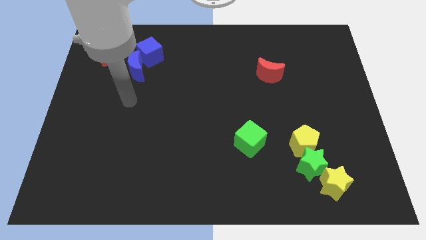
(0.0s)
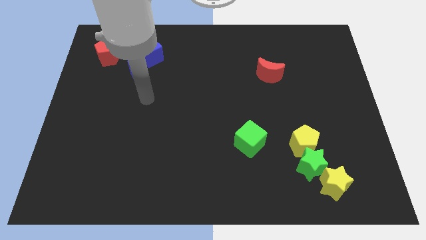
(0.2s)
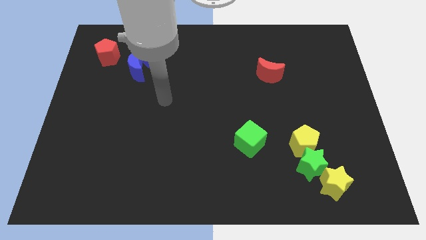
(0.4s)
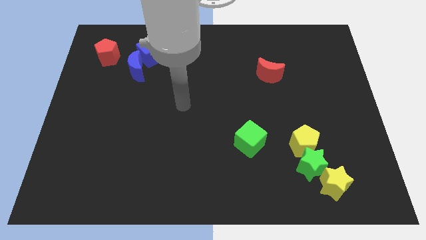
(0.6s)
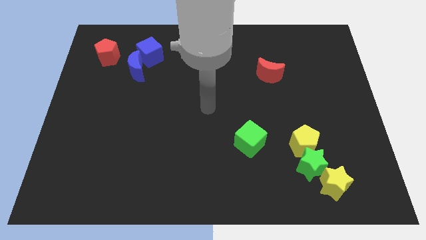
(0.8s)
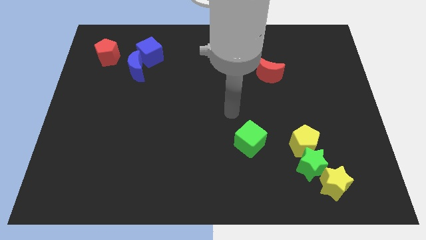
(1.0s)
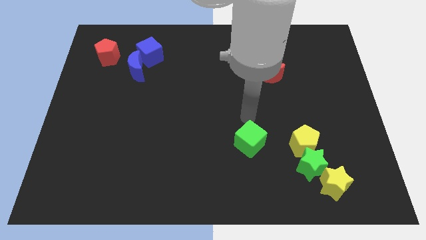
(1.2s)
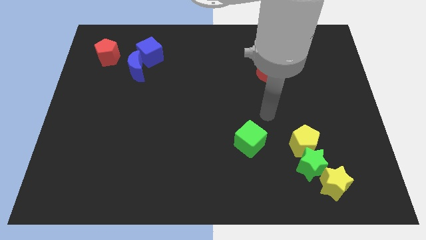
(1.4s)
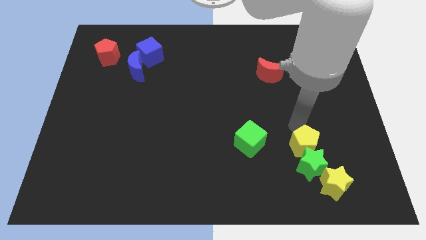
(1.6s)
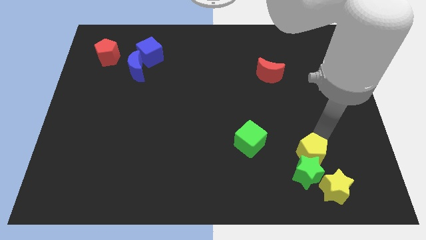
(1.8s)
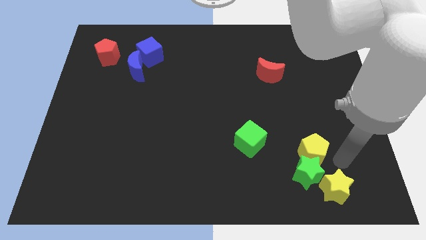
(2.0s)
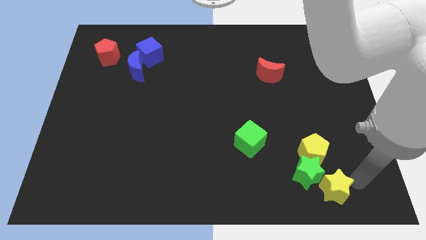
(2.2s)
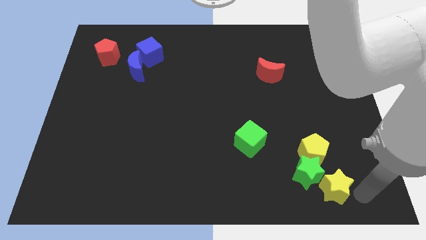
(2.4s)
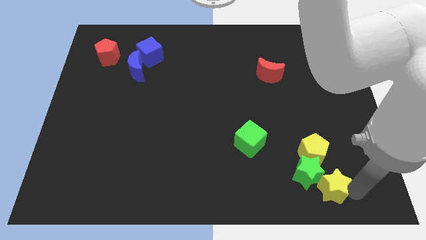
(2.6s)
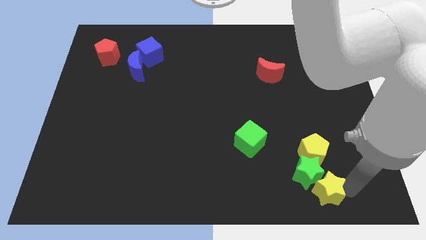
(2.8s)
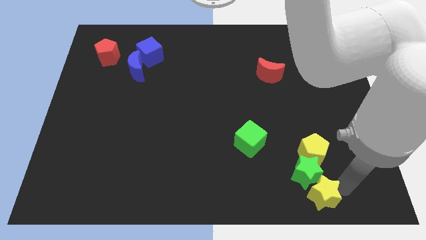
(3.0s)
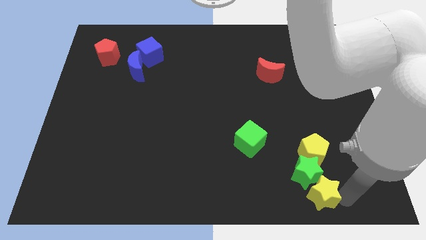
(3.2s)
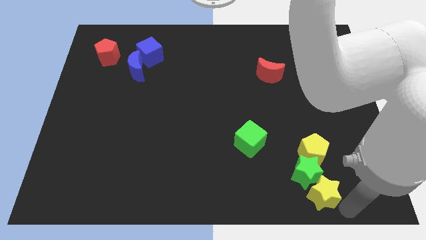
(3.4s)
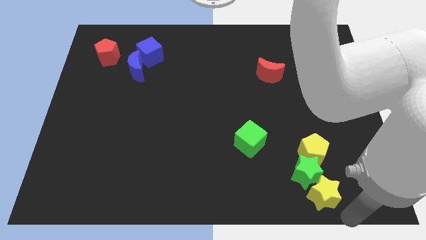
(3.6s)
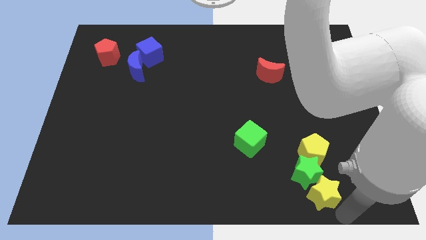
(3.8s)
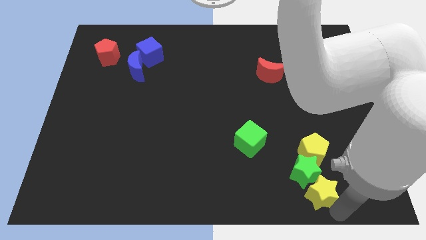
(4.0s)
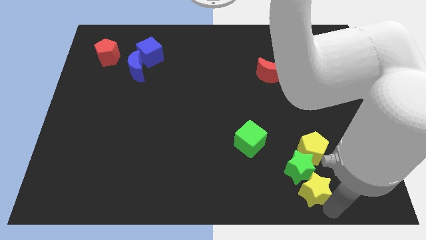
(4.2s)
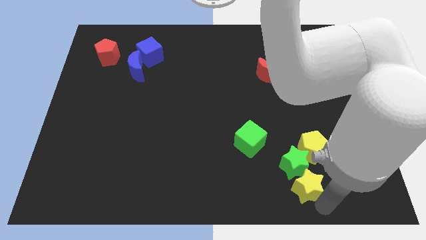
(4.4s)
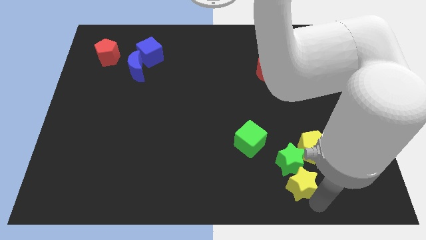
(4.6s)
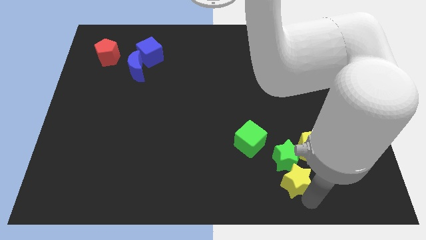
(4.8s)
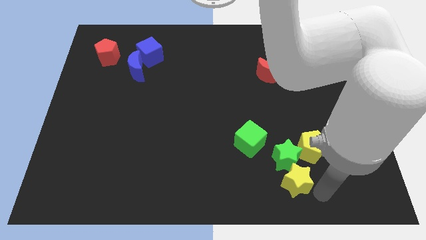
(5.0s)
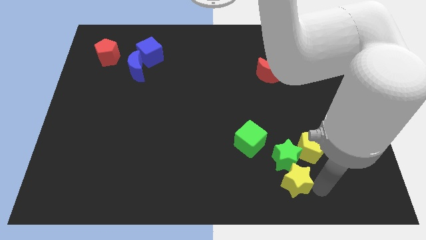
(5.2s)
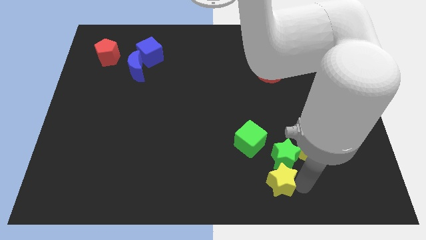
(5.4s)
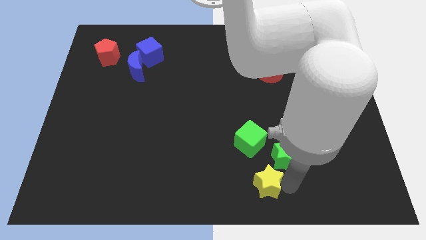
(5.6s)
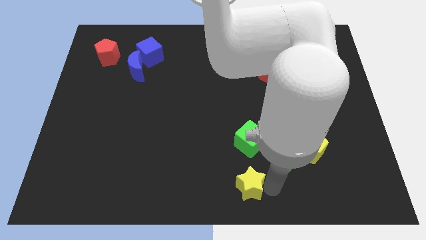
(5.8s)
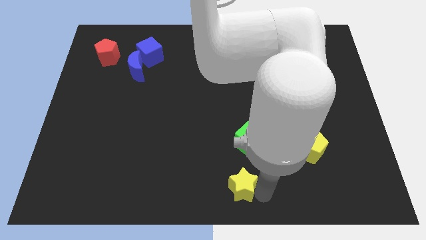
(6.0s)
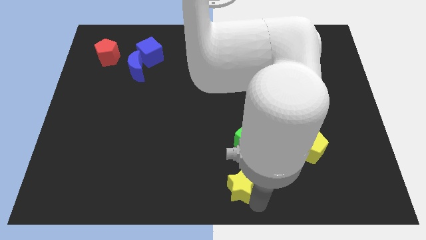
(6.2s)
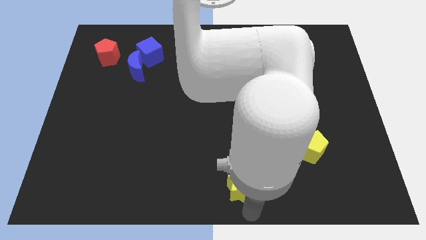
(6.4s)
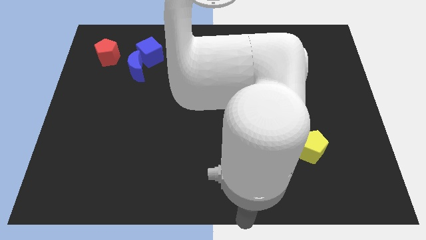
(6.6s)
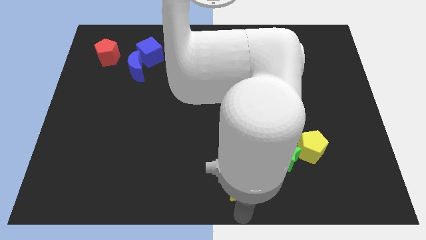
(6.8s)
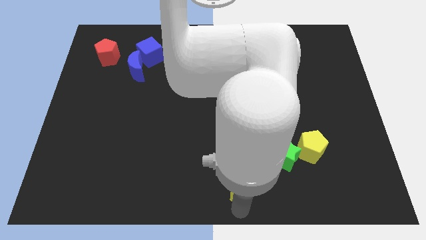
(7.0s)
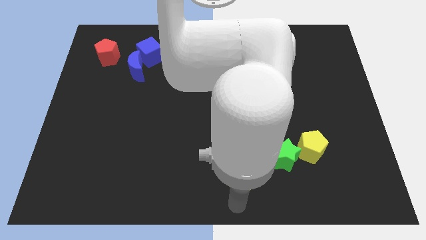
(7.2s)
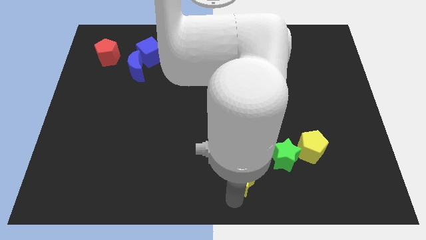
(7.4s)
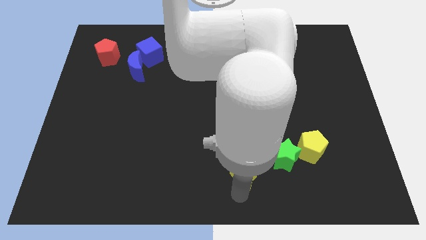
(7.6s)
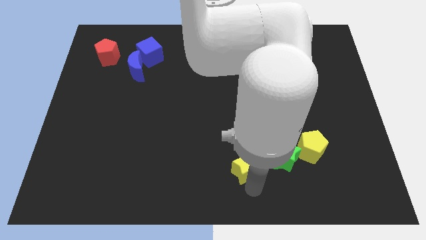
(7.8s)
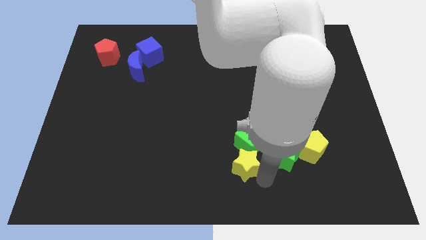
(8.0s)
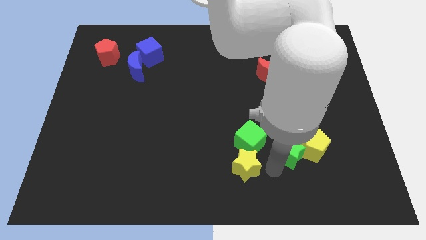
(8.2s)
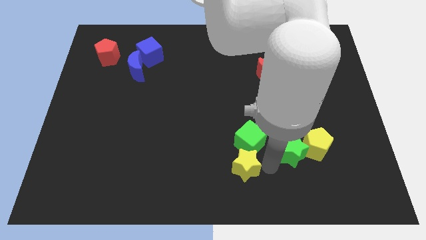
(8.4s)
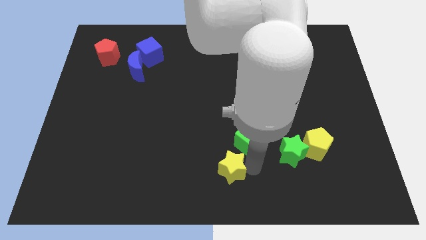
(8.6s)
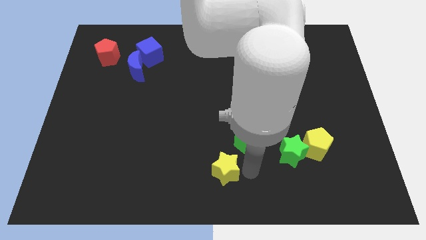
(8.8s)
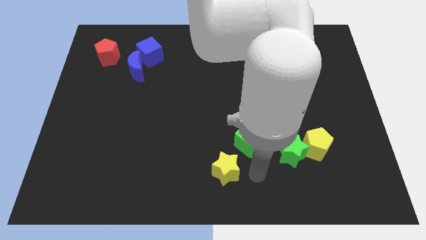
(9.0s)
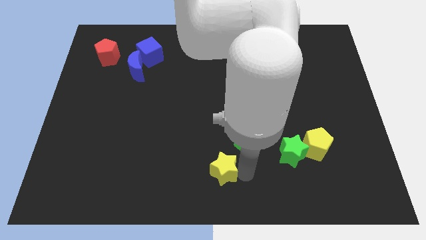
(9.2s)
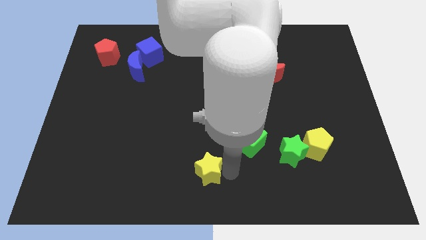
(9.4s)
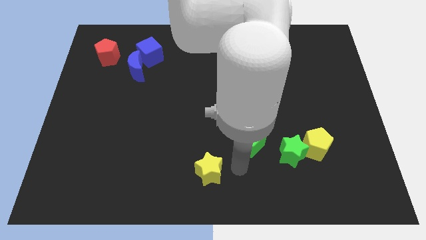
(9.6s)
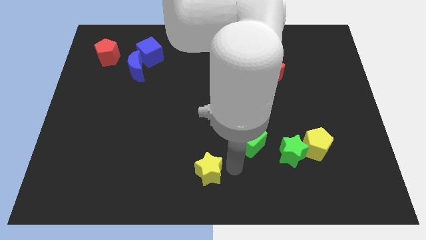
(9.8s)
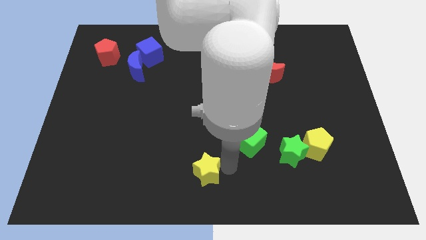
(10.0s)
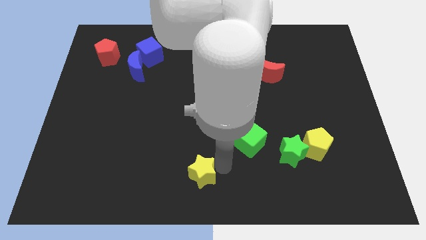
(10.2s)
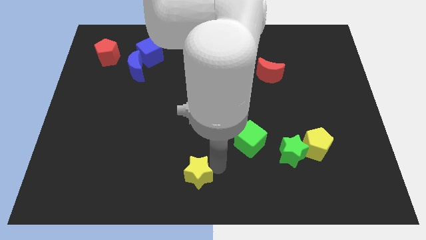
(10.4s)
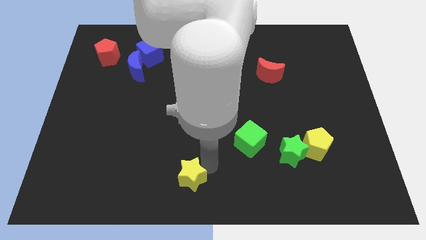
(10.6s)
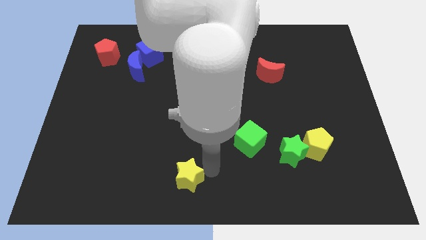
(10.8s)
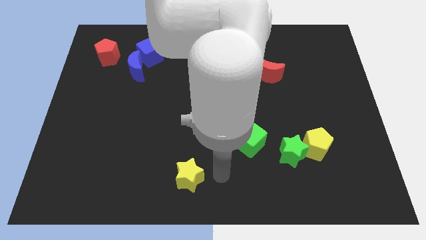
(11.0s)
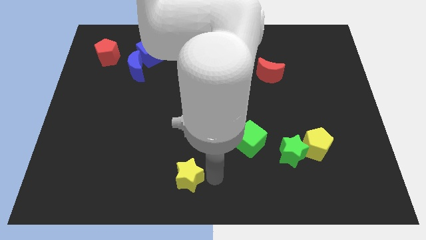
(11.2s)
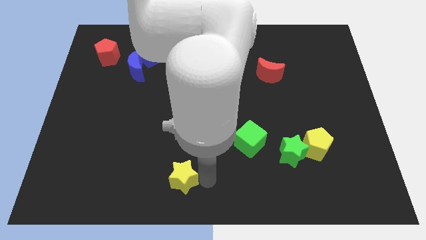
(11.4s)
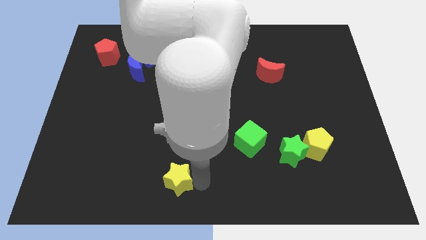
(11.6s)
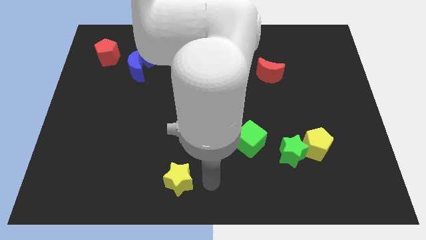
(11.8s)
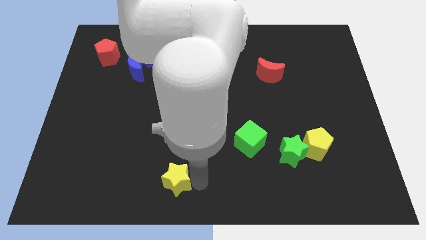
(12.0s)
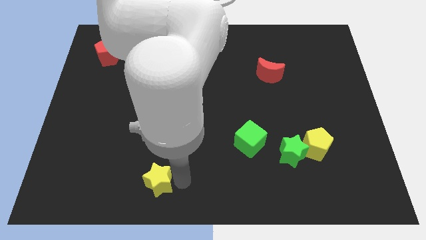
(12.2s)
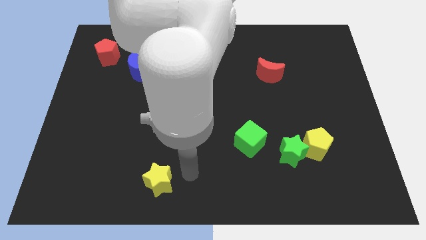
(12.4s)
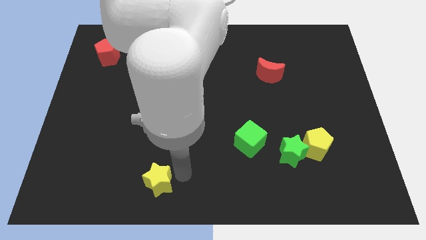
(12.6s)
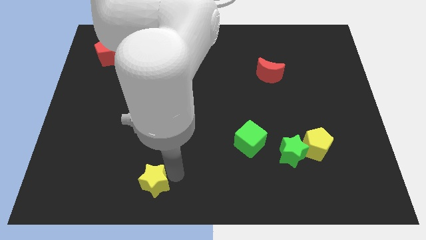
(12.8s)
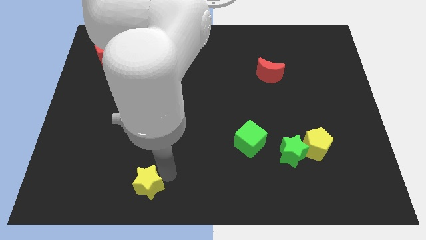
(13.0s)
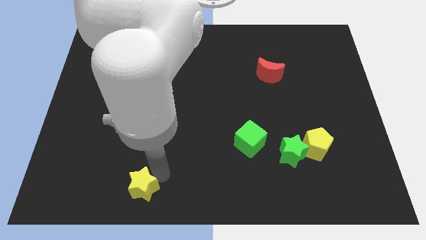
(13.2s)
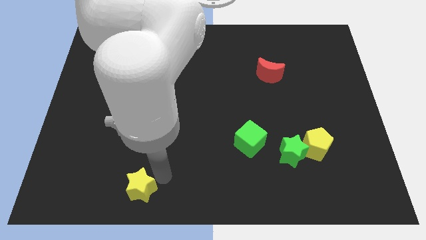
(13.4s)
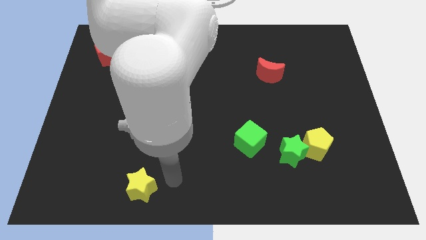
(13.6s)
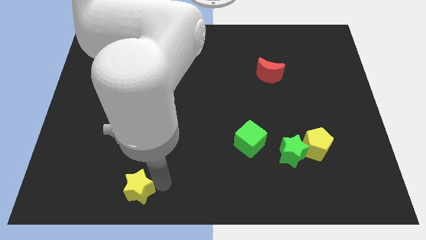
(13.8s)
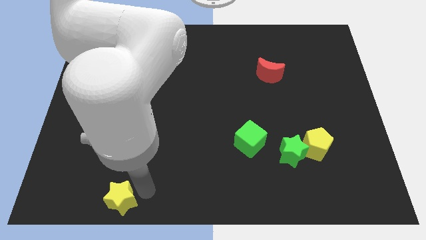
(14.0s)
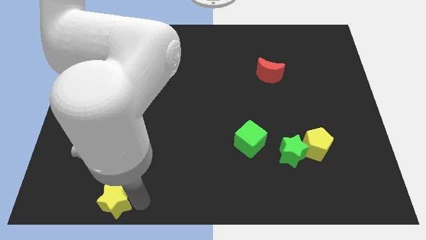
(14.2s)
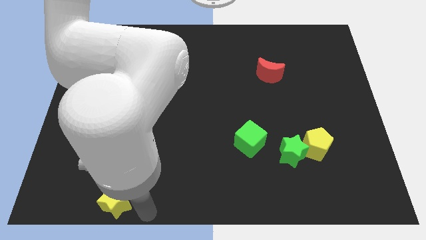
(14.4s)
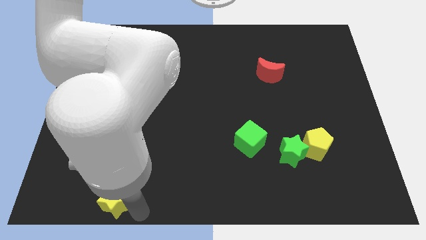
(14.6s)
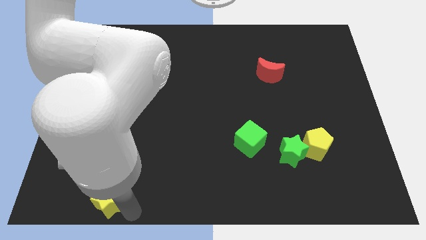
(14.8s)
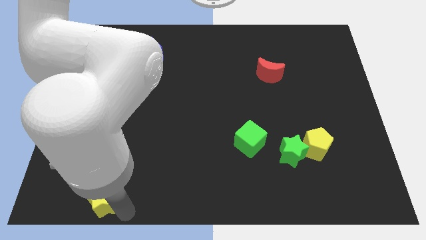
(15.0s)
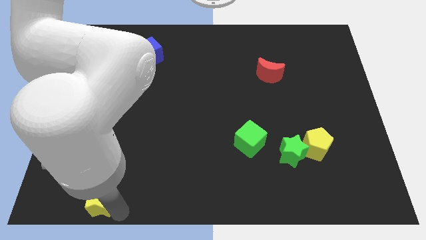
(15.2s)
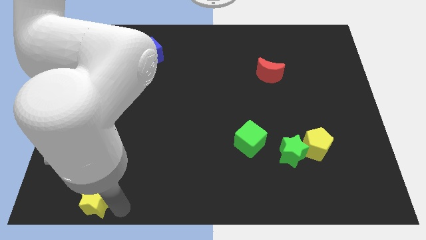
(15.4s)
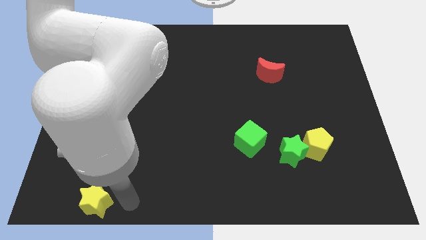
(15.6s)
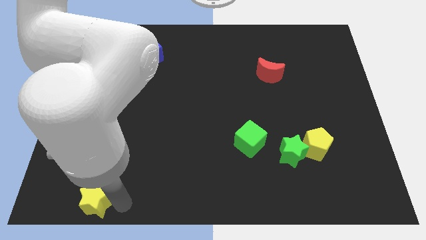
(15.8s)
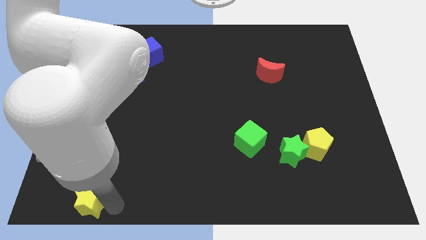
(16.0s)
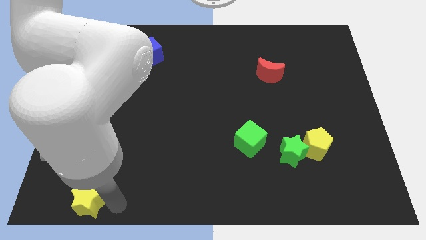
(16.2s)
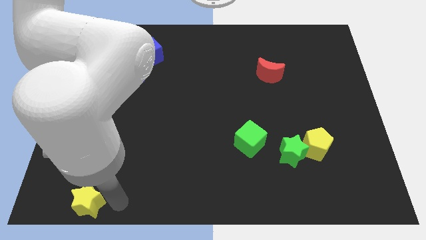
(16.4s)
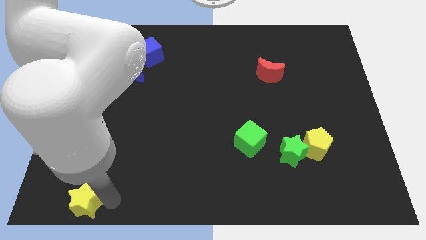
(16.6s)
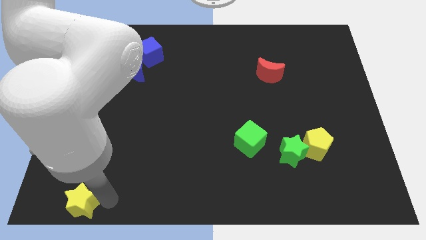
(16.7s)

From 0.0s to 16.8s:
move the yellow star to the bottom left
